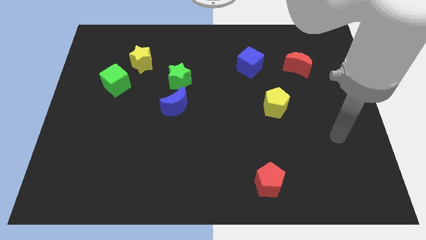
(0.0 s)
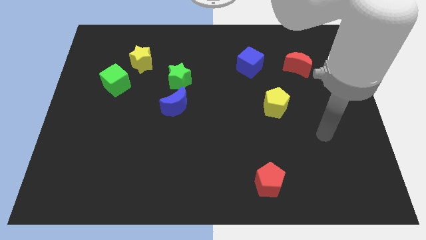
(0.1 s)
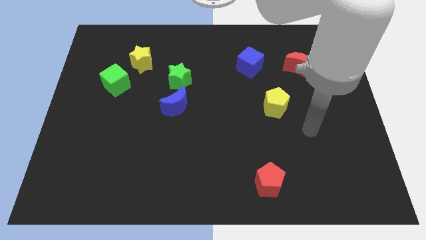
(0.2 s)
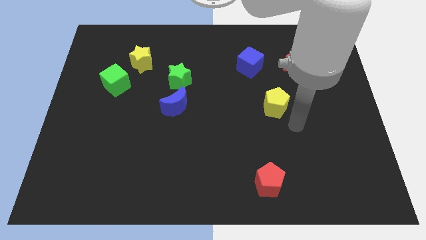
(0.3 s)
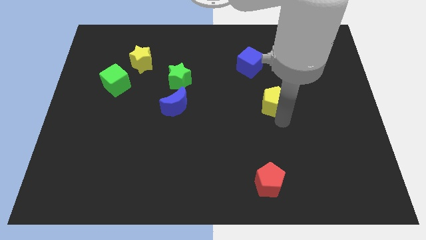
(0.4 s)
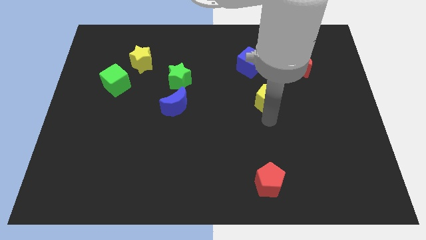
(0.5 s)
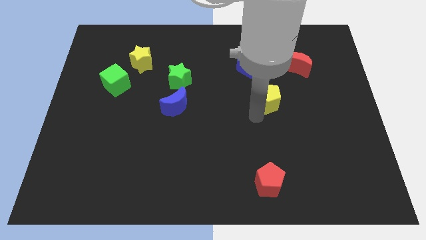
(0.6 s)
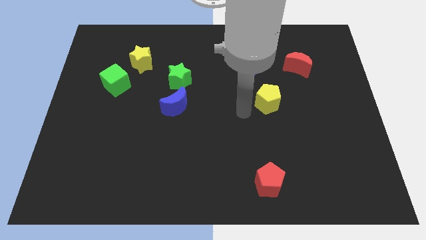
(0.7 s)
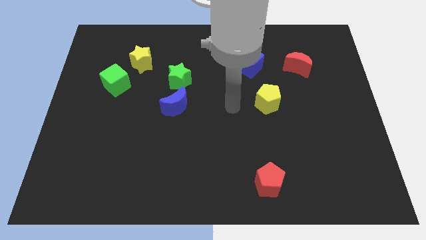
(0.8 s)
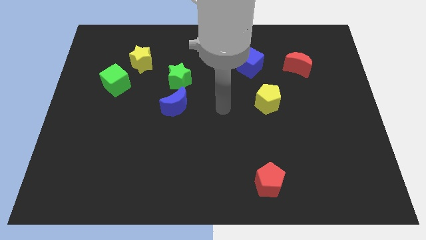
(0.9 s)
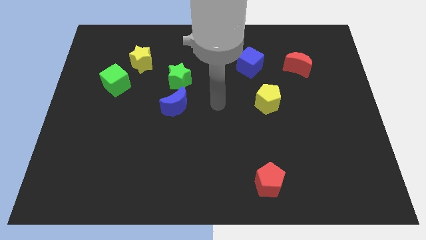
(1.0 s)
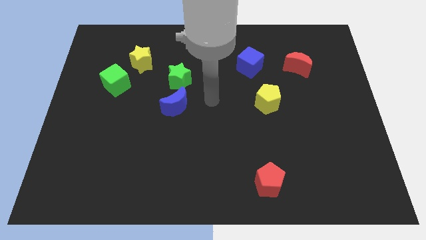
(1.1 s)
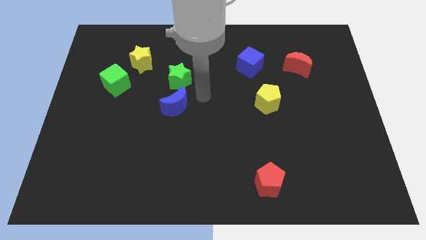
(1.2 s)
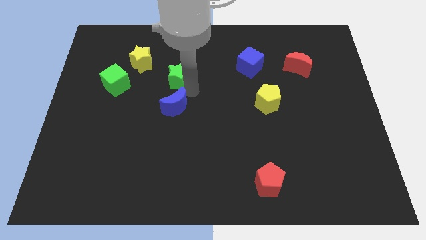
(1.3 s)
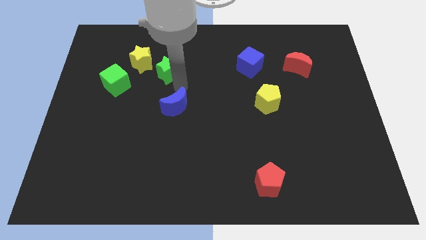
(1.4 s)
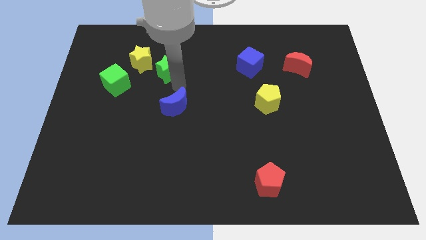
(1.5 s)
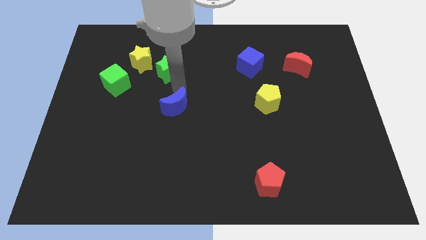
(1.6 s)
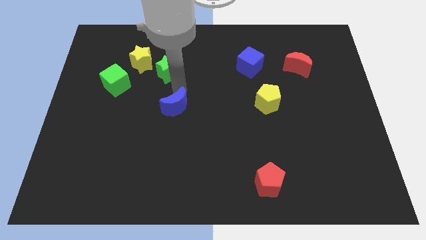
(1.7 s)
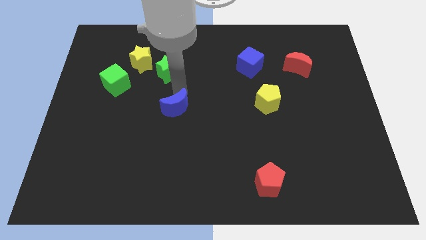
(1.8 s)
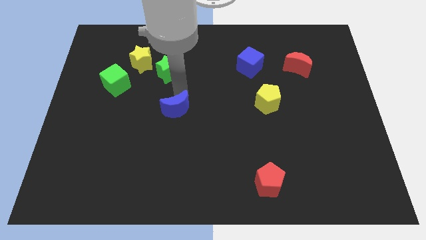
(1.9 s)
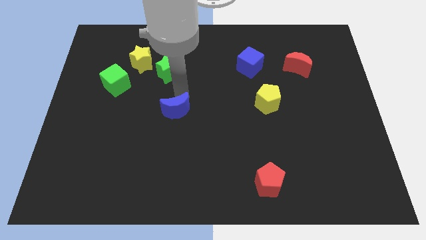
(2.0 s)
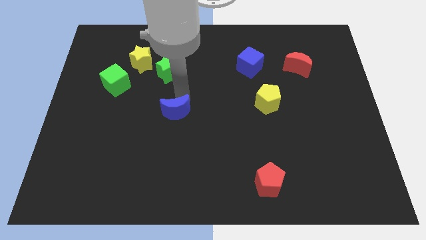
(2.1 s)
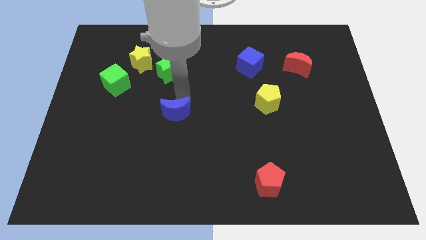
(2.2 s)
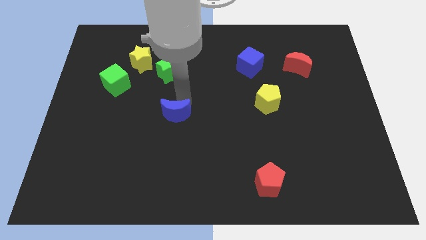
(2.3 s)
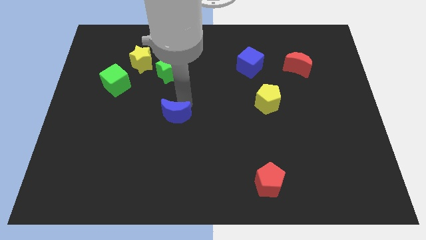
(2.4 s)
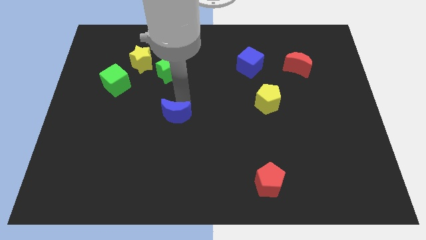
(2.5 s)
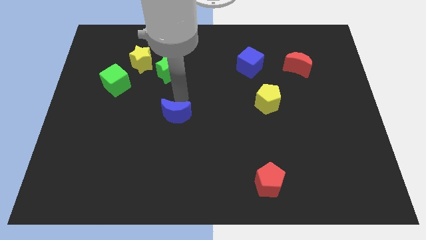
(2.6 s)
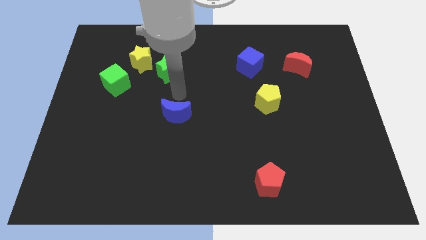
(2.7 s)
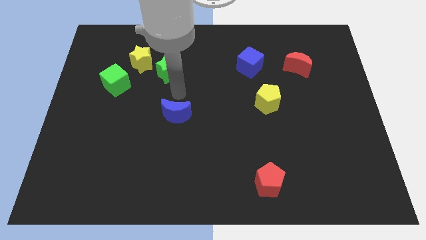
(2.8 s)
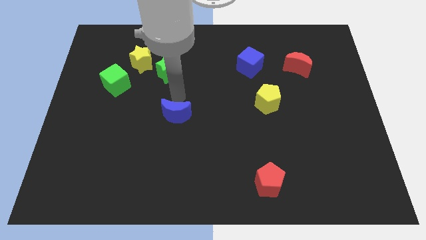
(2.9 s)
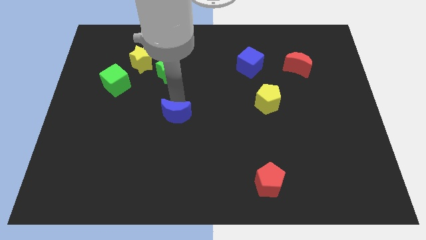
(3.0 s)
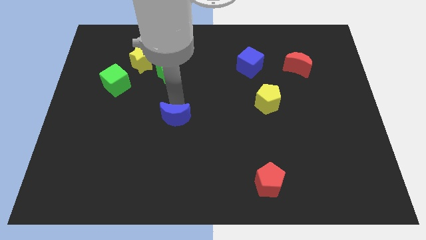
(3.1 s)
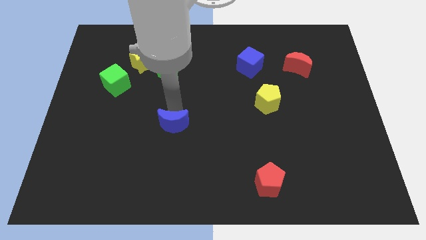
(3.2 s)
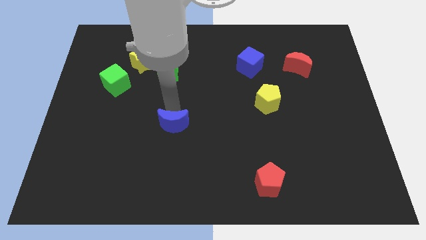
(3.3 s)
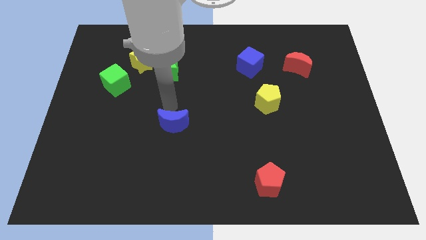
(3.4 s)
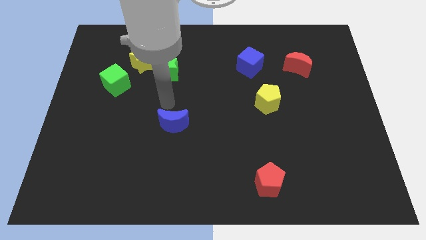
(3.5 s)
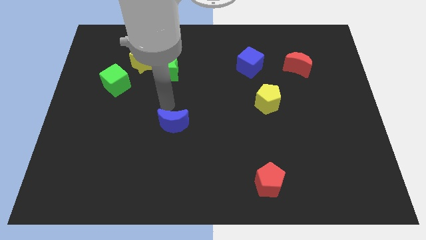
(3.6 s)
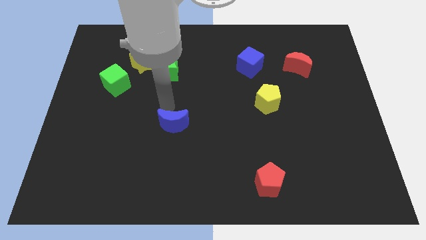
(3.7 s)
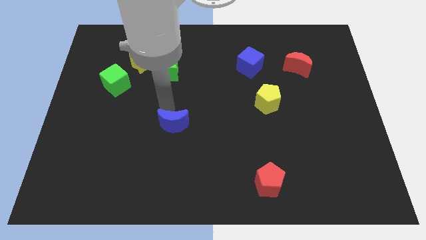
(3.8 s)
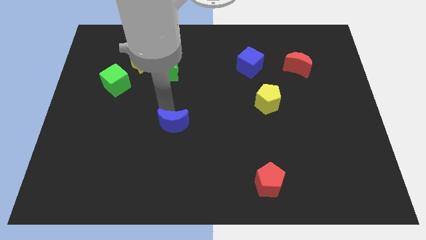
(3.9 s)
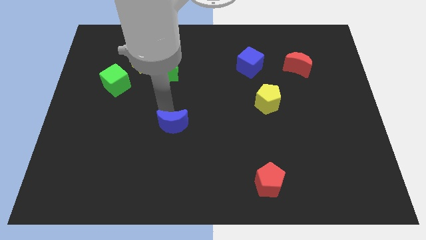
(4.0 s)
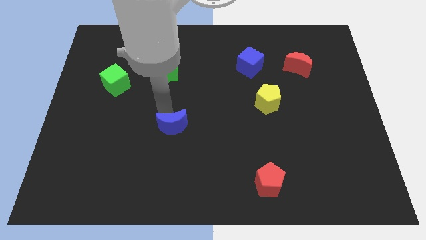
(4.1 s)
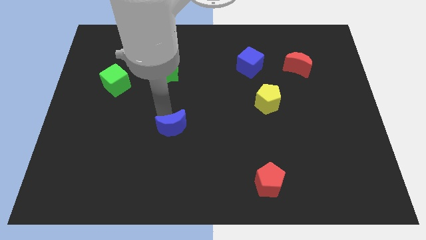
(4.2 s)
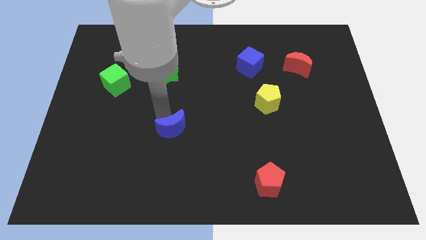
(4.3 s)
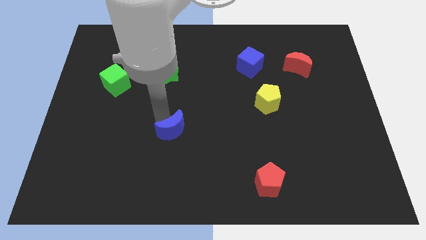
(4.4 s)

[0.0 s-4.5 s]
slightly slide the blue moon down

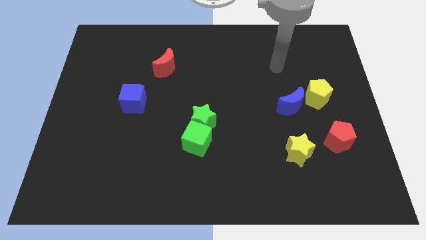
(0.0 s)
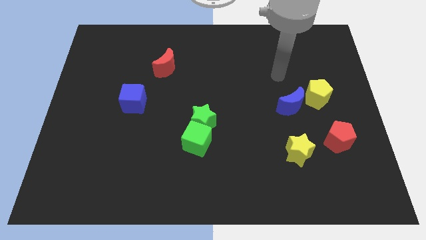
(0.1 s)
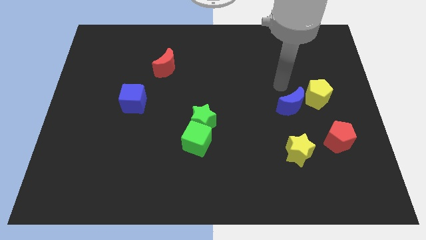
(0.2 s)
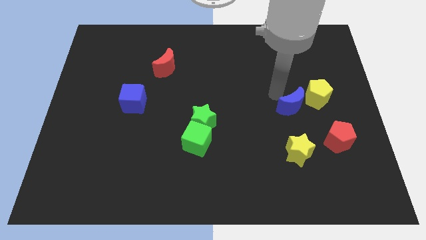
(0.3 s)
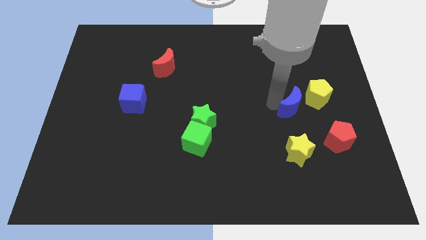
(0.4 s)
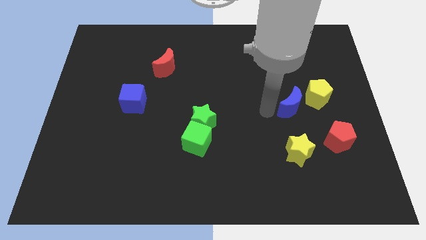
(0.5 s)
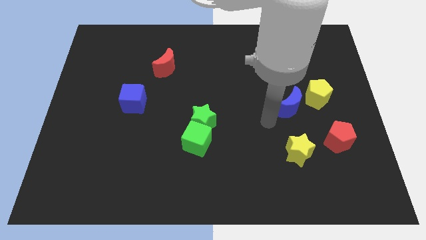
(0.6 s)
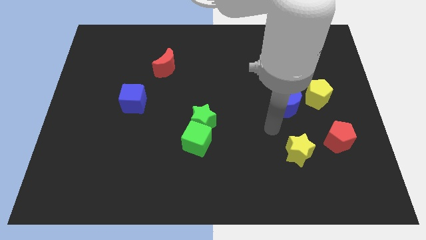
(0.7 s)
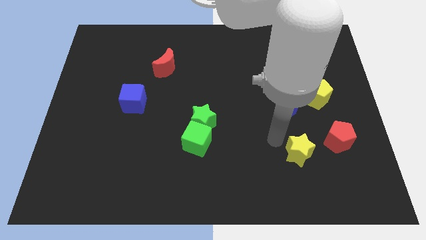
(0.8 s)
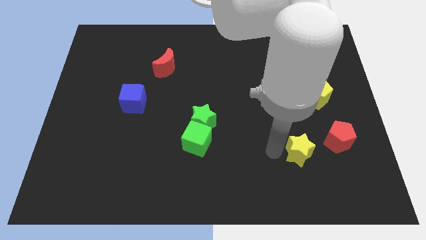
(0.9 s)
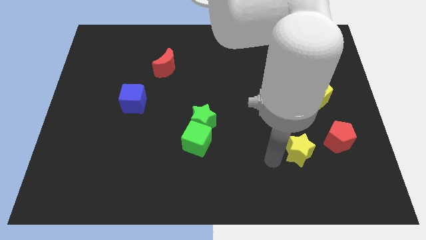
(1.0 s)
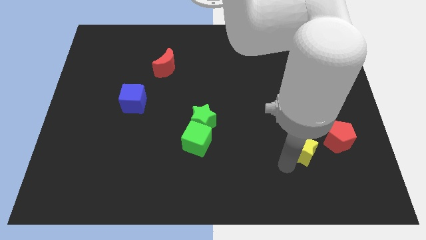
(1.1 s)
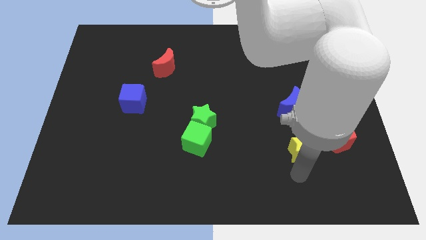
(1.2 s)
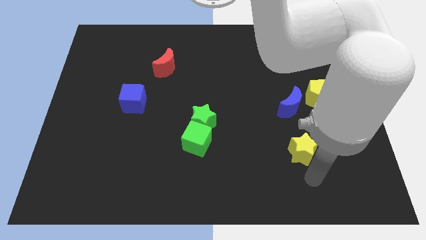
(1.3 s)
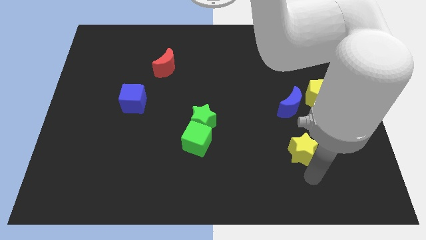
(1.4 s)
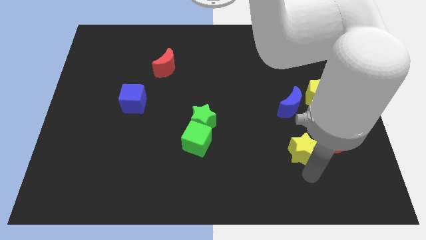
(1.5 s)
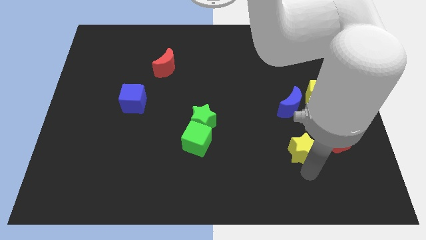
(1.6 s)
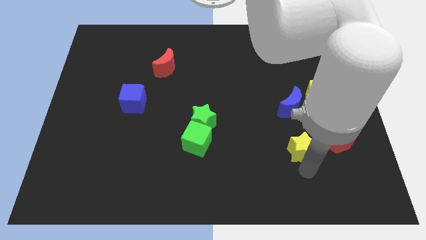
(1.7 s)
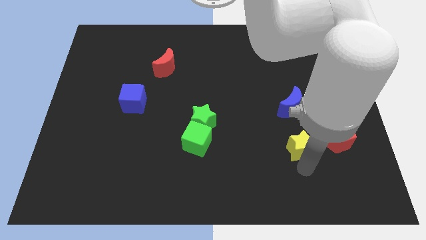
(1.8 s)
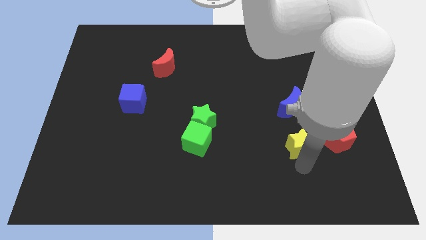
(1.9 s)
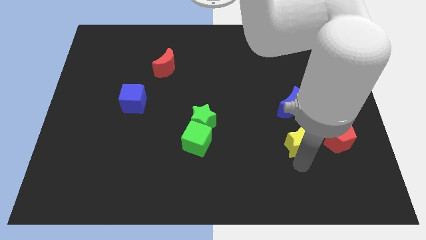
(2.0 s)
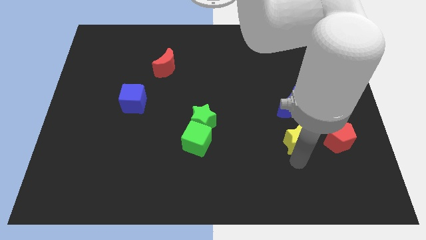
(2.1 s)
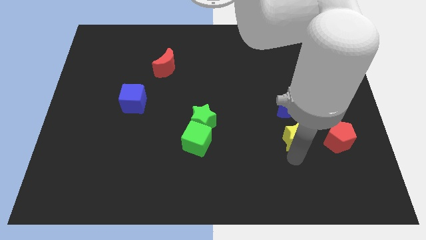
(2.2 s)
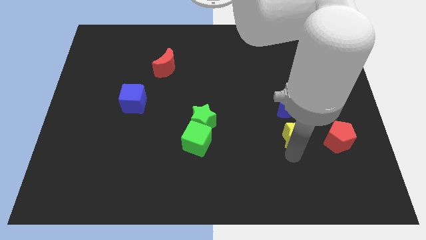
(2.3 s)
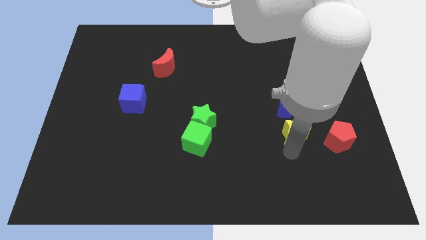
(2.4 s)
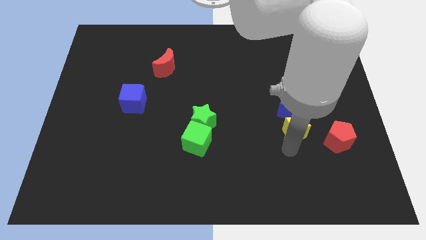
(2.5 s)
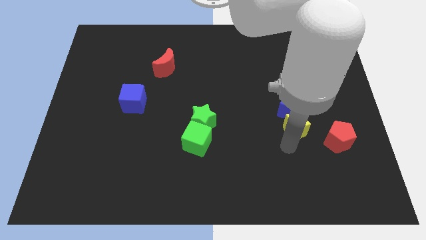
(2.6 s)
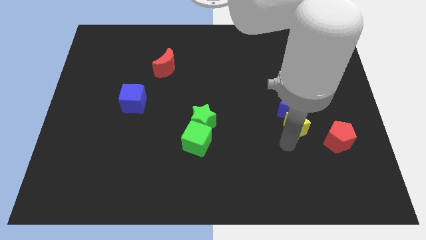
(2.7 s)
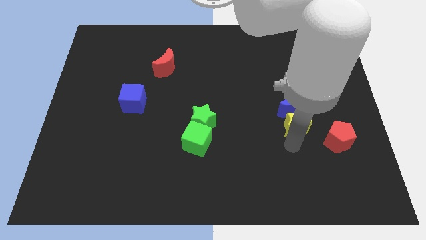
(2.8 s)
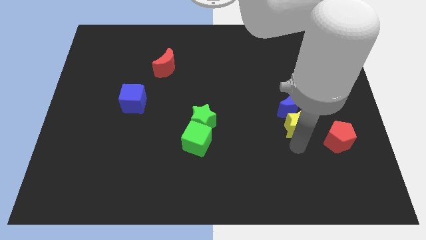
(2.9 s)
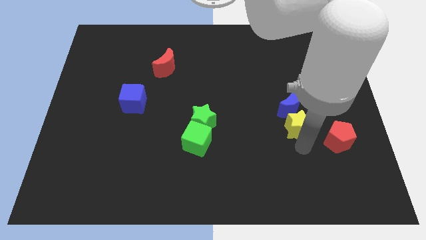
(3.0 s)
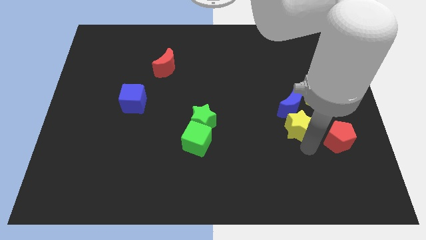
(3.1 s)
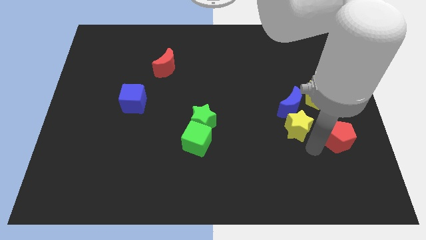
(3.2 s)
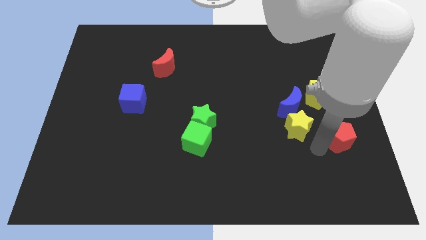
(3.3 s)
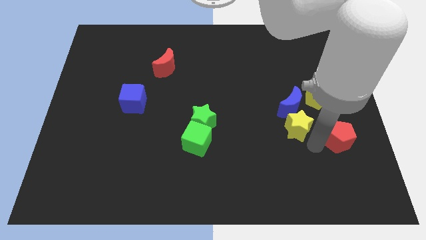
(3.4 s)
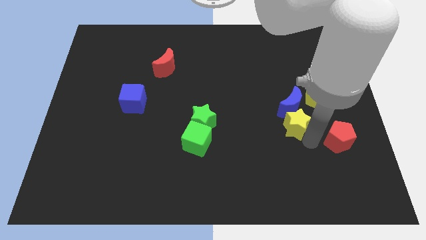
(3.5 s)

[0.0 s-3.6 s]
push the yellow star up a little
